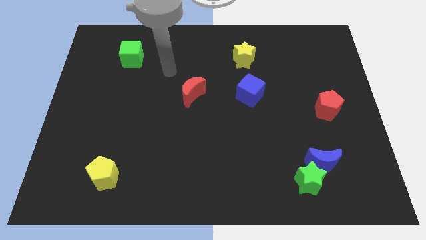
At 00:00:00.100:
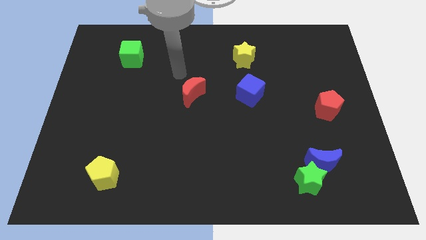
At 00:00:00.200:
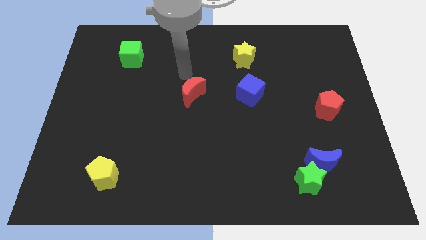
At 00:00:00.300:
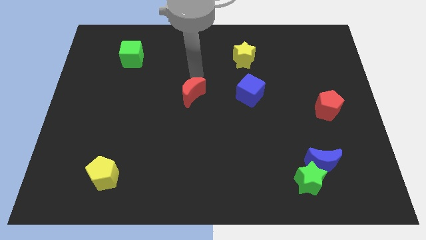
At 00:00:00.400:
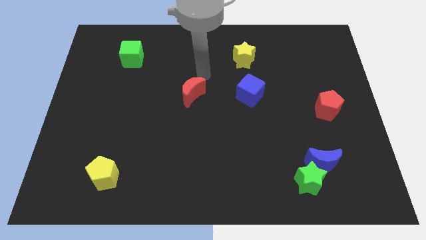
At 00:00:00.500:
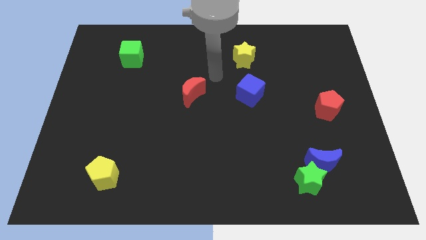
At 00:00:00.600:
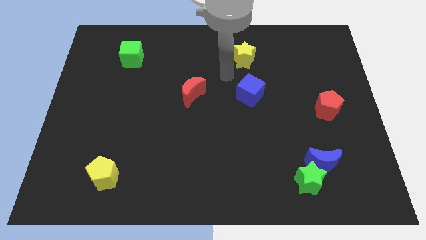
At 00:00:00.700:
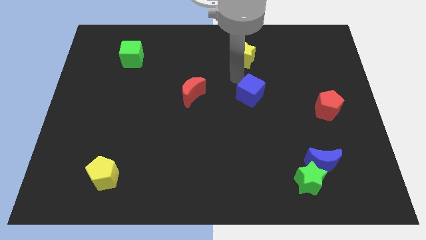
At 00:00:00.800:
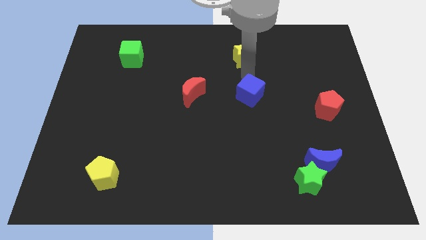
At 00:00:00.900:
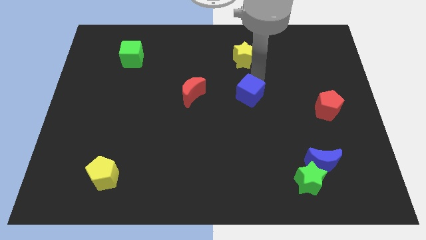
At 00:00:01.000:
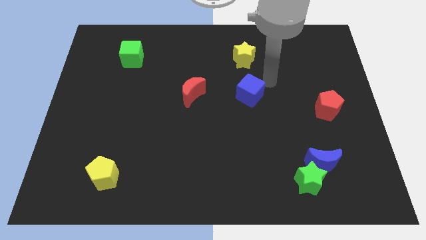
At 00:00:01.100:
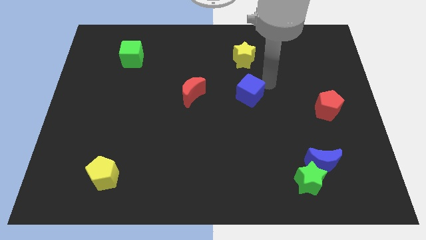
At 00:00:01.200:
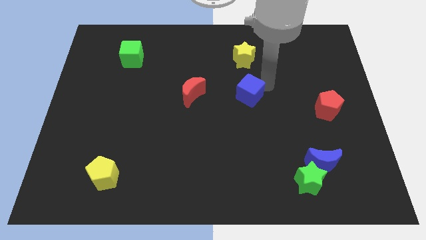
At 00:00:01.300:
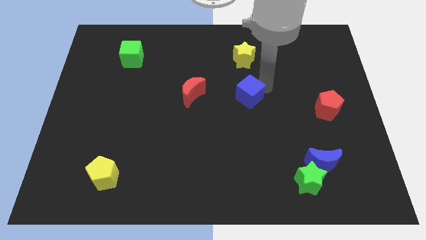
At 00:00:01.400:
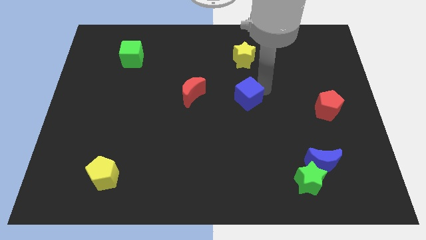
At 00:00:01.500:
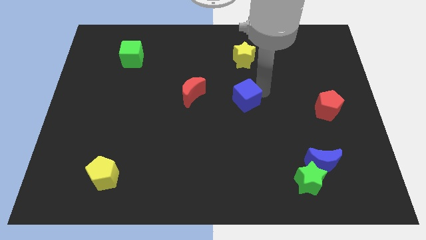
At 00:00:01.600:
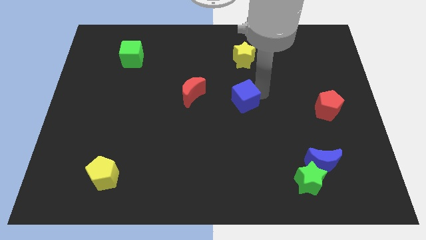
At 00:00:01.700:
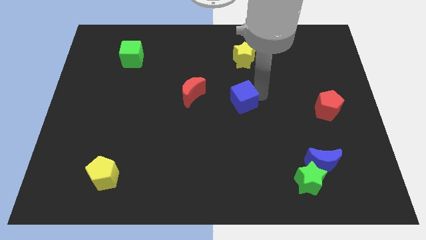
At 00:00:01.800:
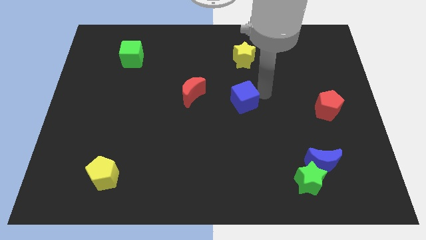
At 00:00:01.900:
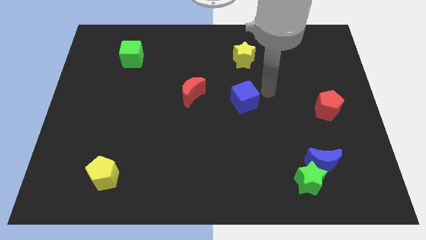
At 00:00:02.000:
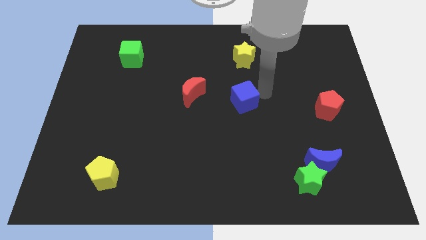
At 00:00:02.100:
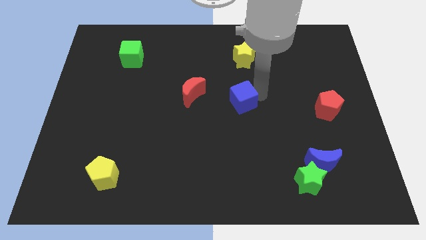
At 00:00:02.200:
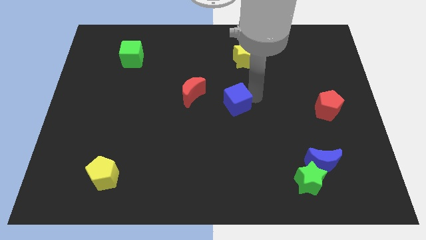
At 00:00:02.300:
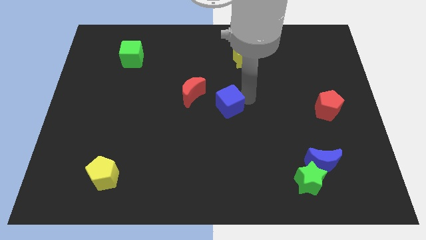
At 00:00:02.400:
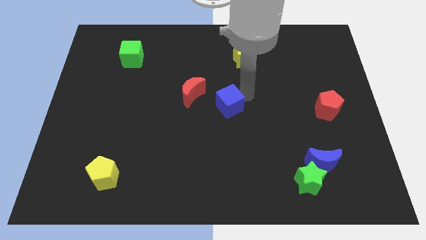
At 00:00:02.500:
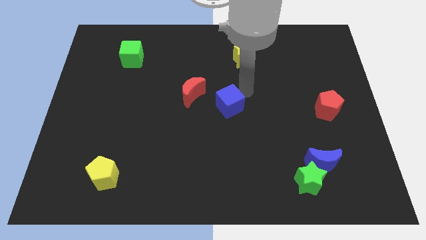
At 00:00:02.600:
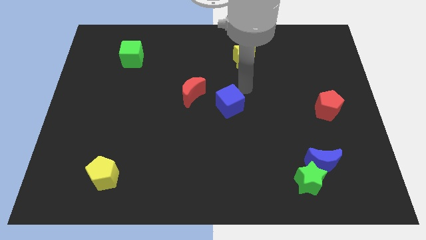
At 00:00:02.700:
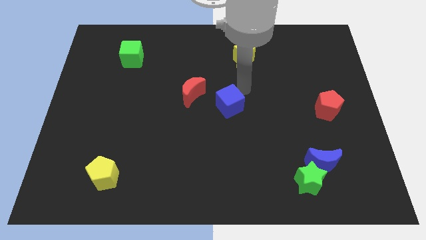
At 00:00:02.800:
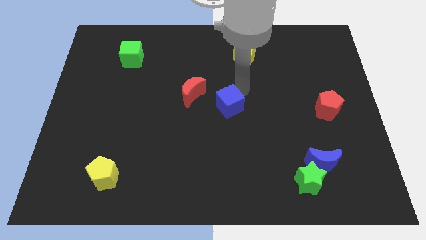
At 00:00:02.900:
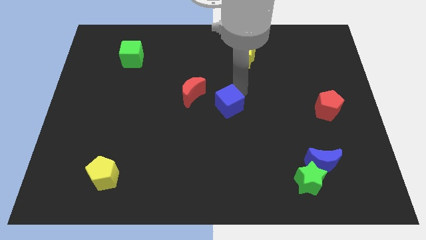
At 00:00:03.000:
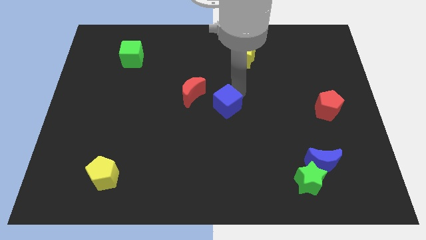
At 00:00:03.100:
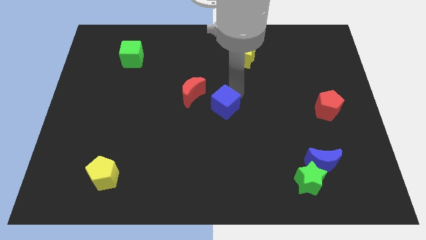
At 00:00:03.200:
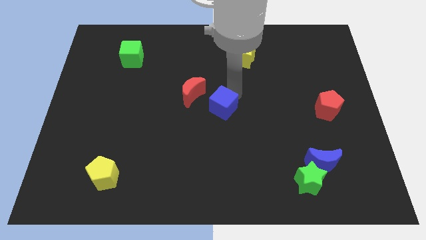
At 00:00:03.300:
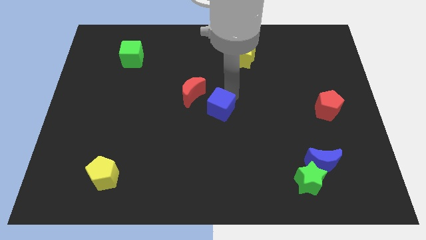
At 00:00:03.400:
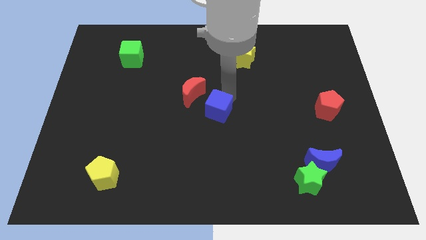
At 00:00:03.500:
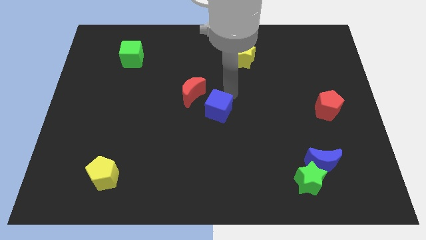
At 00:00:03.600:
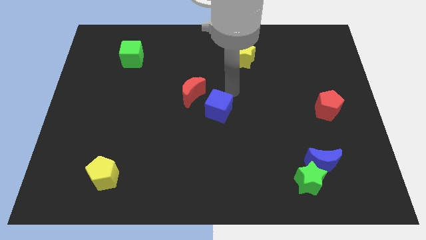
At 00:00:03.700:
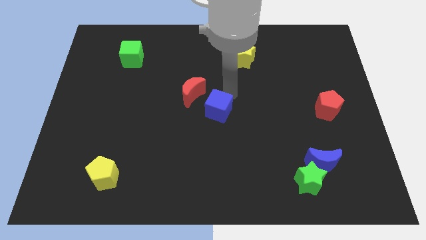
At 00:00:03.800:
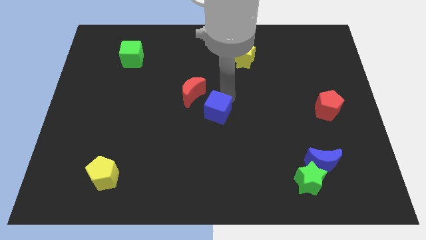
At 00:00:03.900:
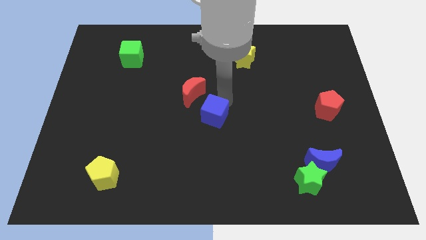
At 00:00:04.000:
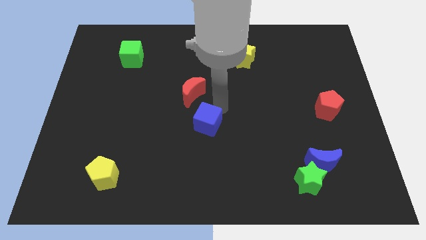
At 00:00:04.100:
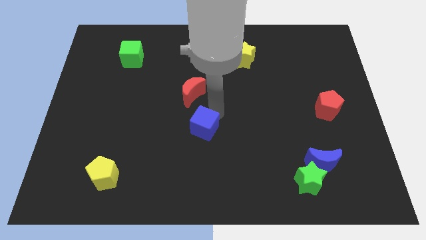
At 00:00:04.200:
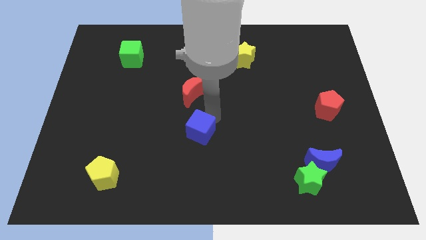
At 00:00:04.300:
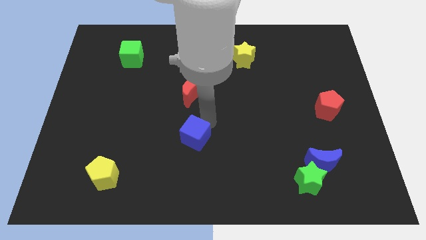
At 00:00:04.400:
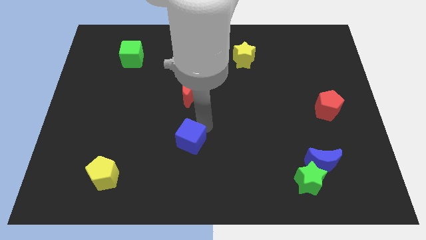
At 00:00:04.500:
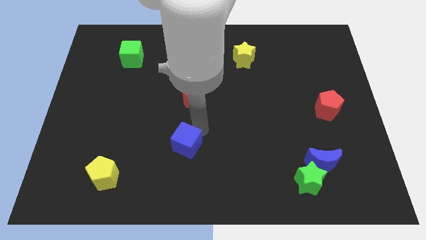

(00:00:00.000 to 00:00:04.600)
move the blue cube down and left diagonally

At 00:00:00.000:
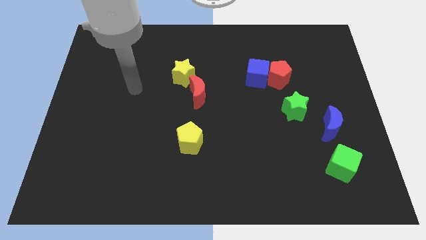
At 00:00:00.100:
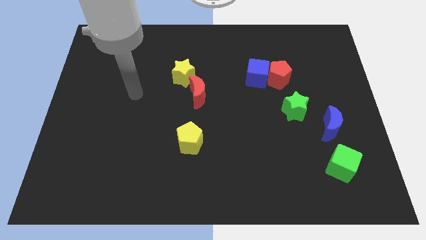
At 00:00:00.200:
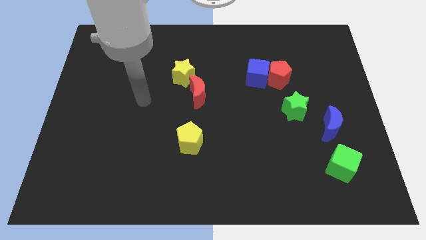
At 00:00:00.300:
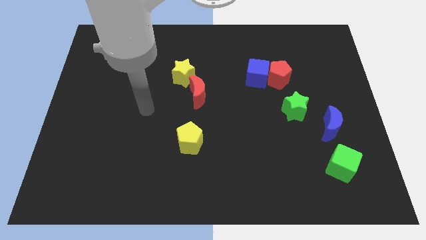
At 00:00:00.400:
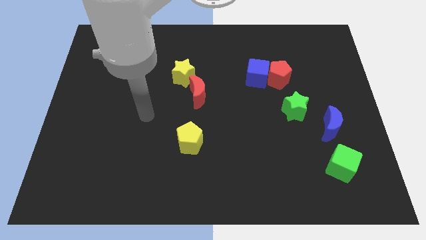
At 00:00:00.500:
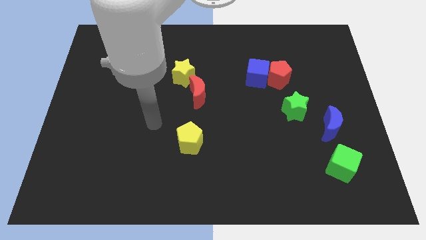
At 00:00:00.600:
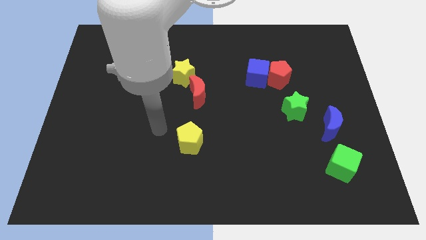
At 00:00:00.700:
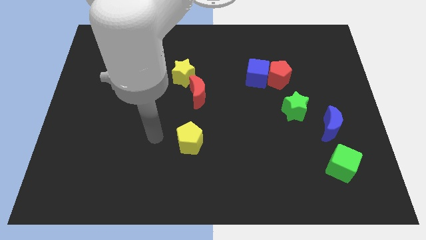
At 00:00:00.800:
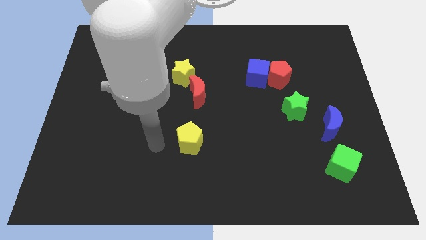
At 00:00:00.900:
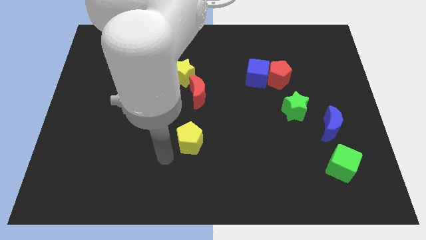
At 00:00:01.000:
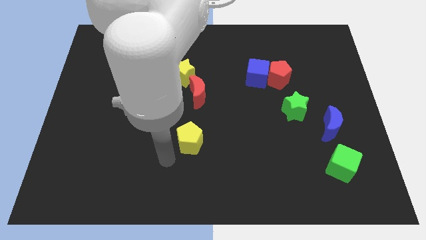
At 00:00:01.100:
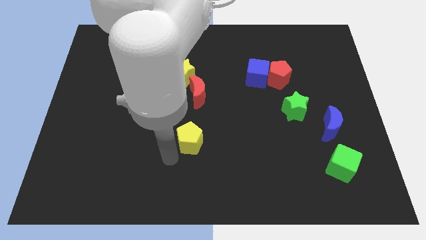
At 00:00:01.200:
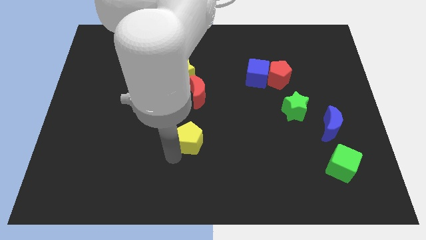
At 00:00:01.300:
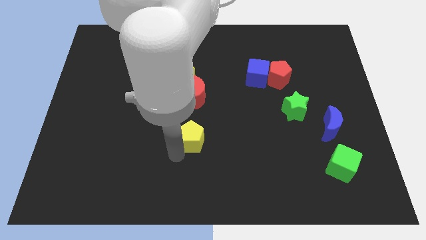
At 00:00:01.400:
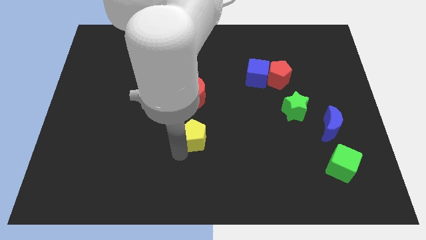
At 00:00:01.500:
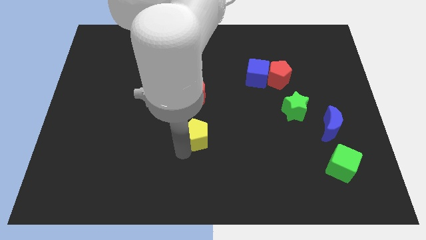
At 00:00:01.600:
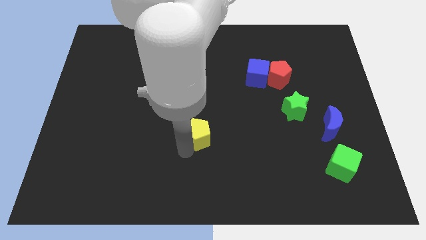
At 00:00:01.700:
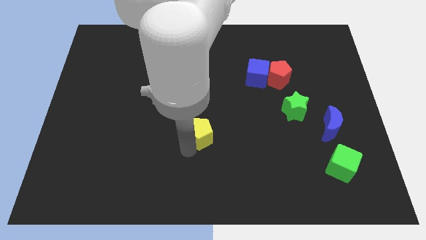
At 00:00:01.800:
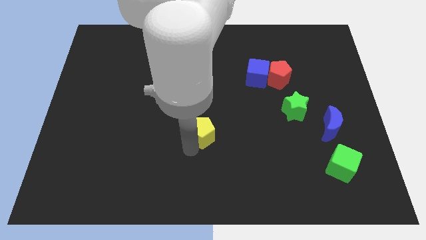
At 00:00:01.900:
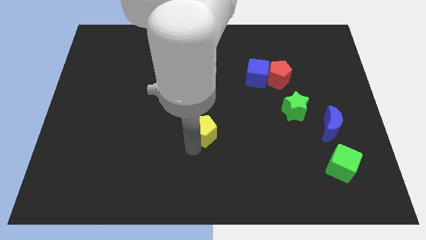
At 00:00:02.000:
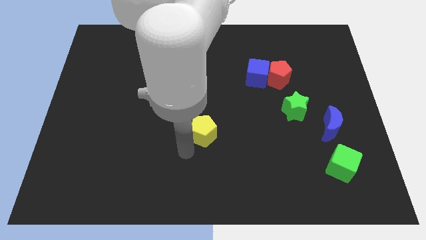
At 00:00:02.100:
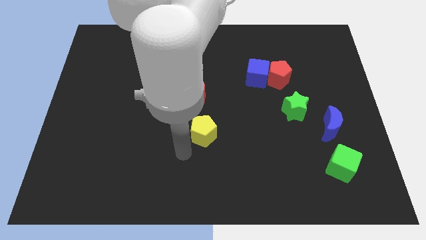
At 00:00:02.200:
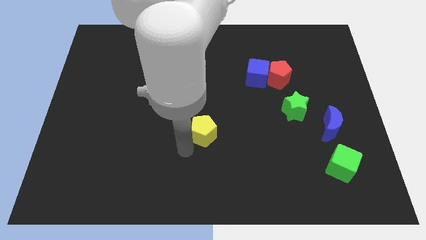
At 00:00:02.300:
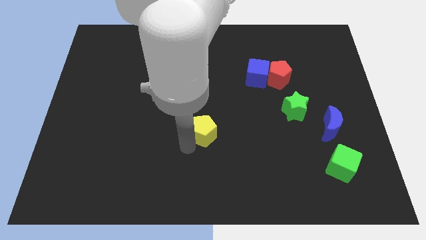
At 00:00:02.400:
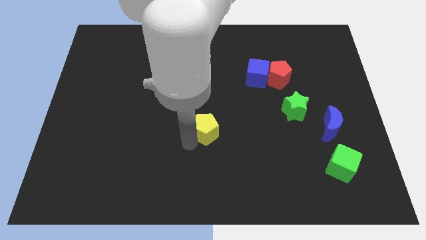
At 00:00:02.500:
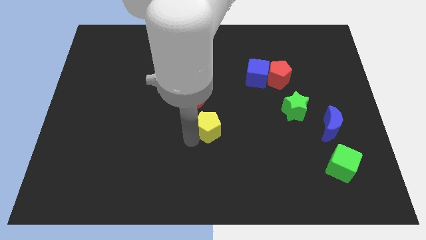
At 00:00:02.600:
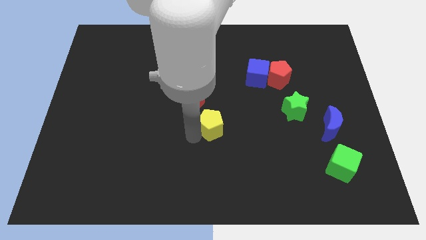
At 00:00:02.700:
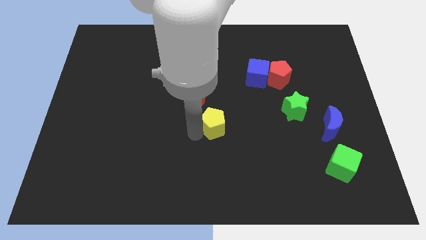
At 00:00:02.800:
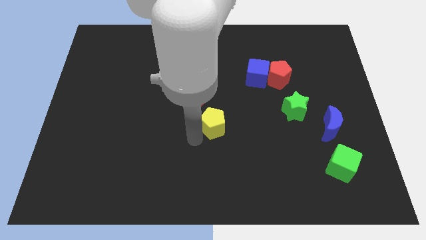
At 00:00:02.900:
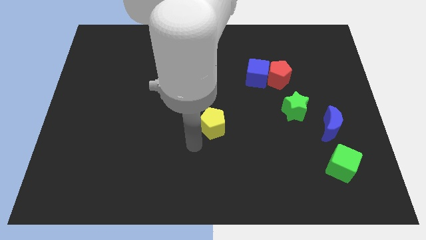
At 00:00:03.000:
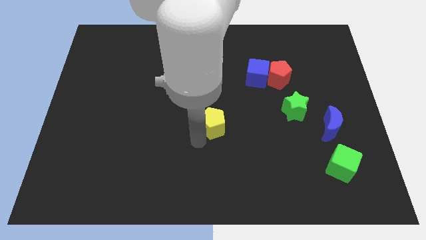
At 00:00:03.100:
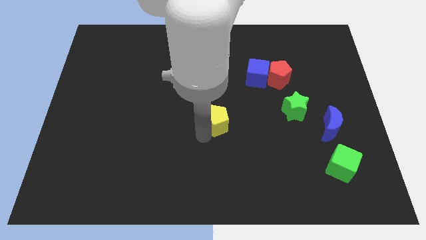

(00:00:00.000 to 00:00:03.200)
slightly move the yellow pentagon up and right

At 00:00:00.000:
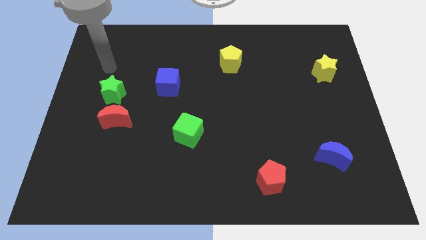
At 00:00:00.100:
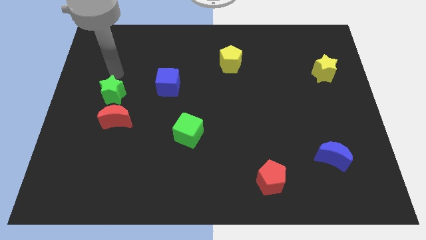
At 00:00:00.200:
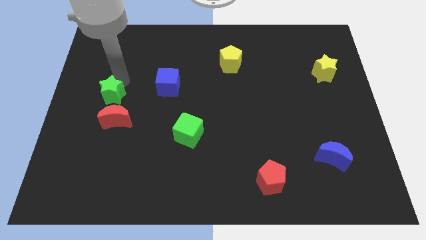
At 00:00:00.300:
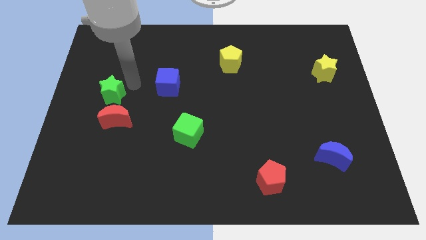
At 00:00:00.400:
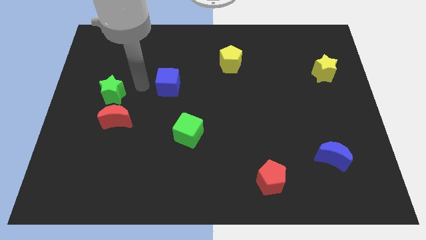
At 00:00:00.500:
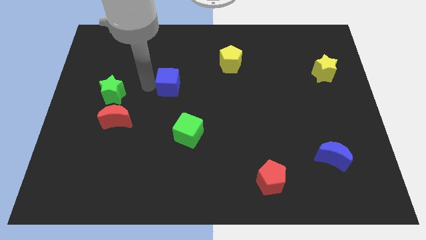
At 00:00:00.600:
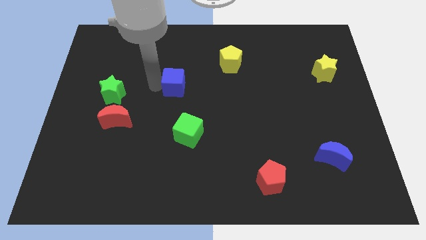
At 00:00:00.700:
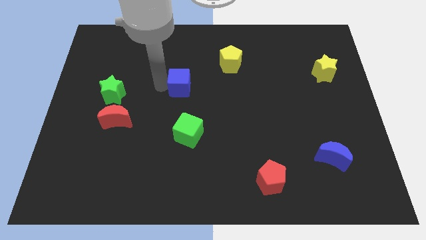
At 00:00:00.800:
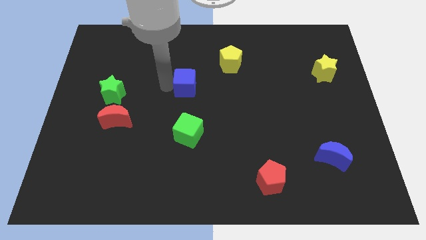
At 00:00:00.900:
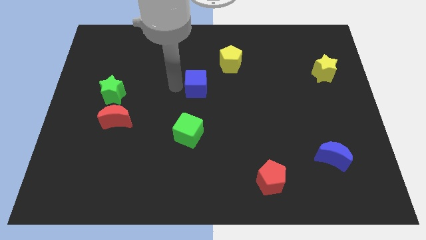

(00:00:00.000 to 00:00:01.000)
slightly push the blue cube to the right
